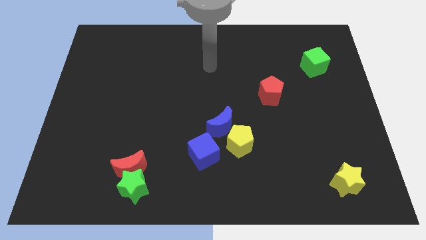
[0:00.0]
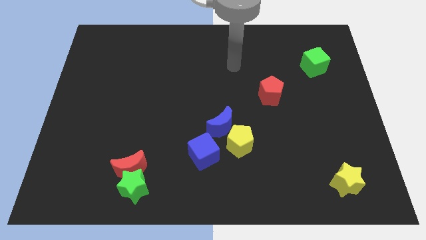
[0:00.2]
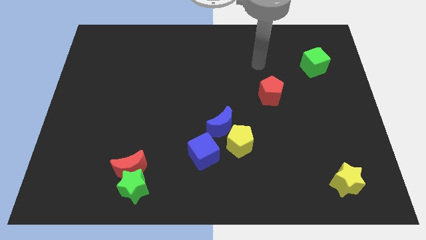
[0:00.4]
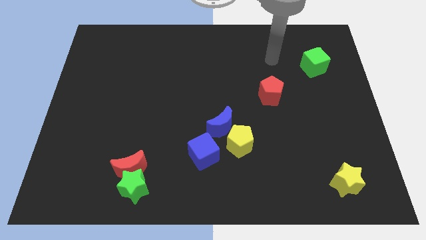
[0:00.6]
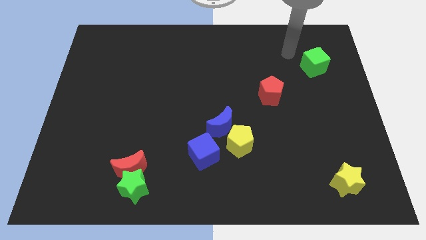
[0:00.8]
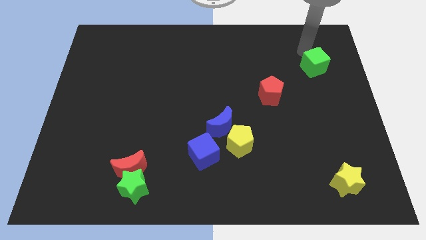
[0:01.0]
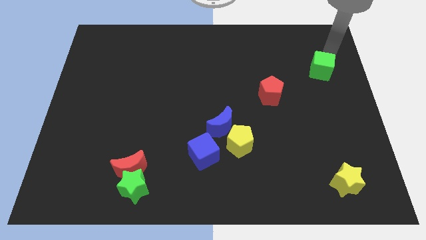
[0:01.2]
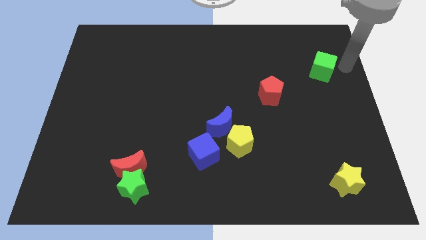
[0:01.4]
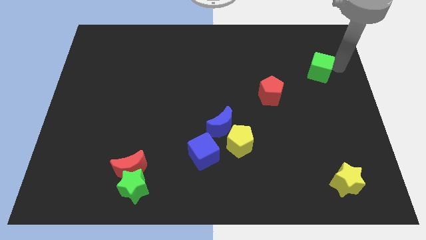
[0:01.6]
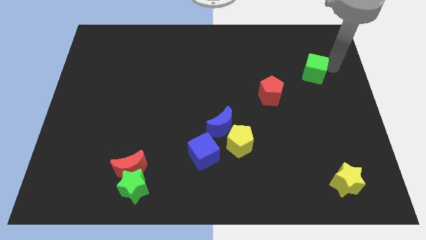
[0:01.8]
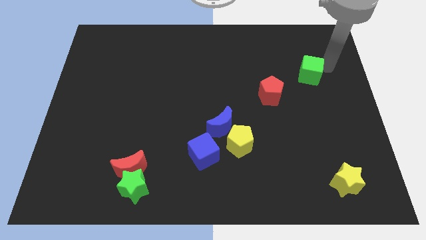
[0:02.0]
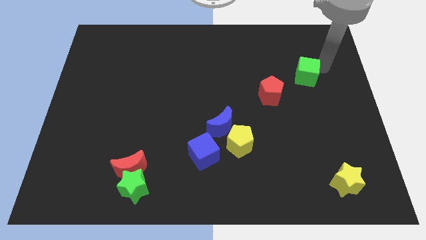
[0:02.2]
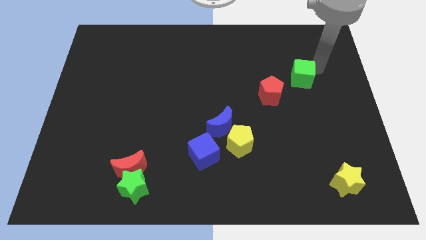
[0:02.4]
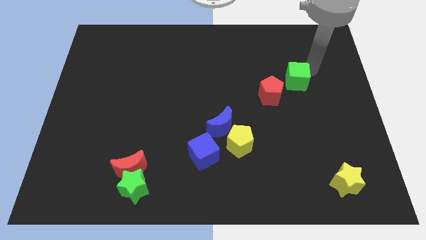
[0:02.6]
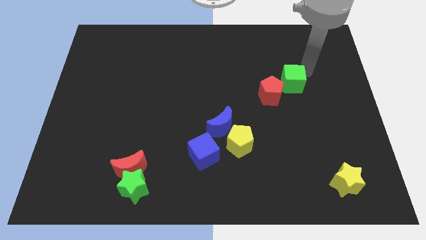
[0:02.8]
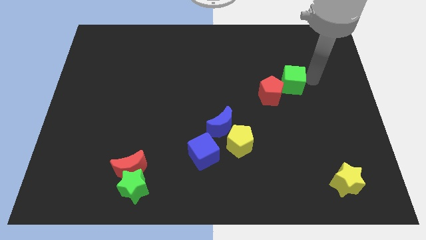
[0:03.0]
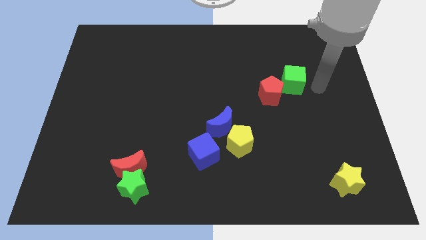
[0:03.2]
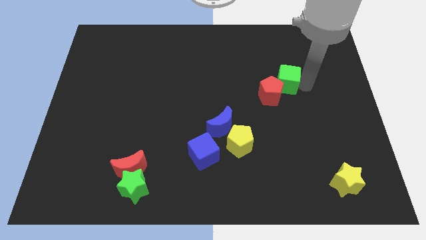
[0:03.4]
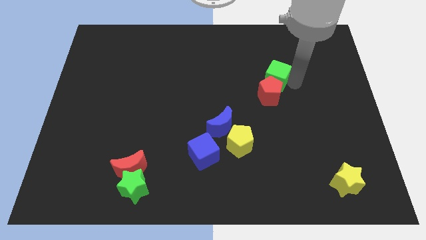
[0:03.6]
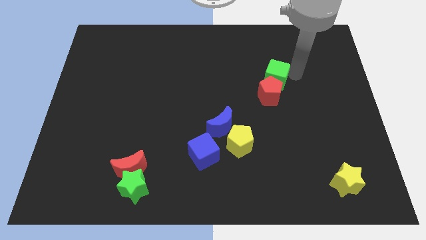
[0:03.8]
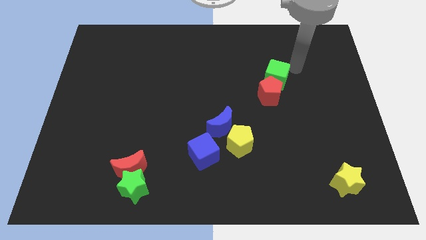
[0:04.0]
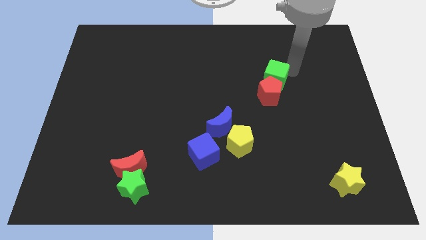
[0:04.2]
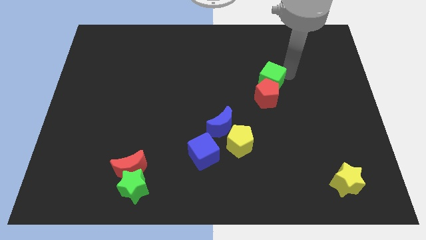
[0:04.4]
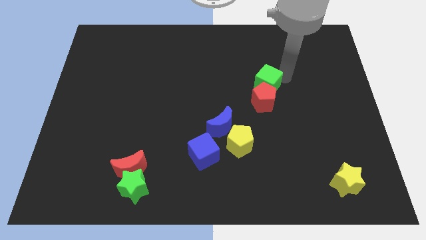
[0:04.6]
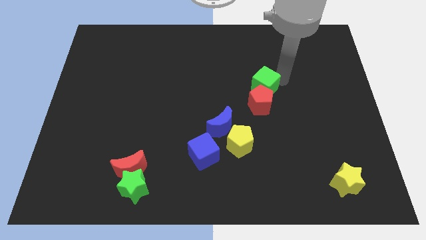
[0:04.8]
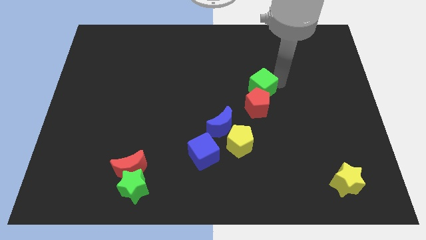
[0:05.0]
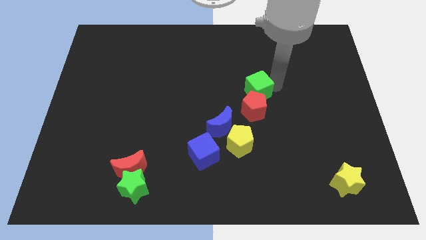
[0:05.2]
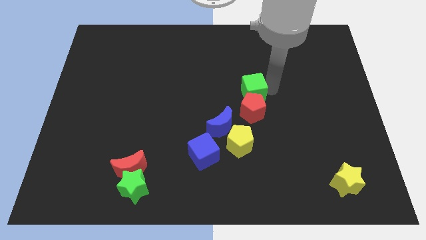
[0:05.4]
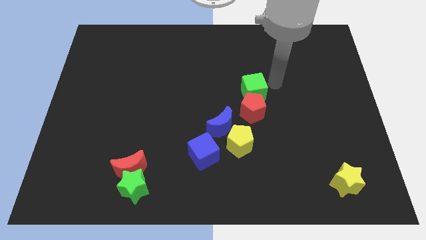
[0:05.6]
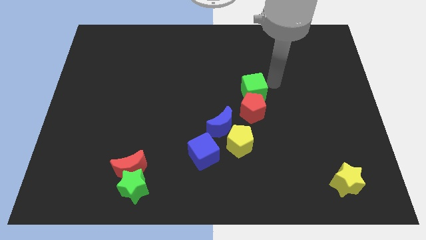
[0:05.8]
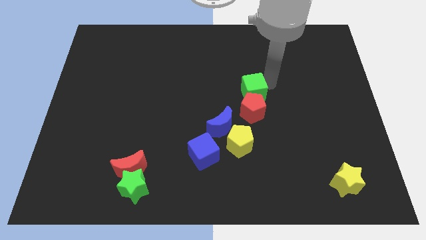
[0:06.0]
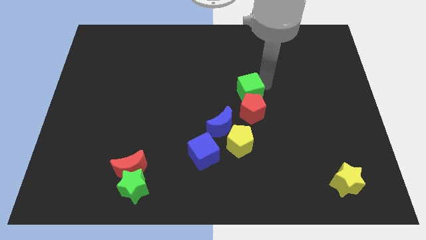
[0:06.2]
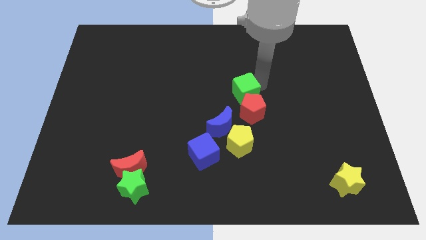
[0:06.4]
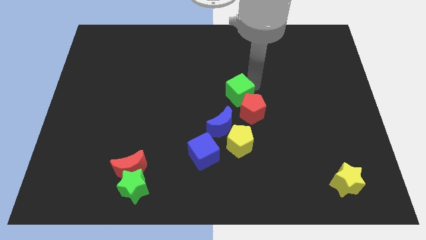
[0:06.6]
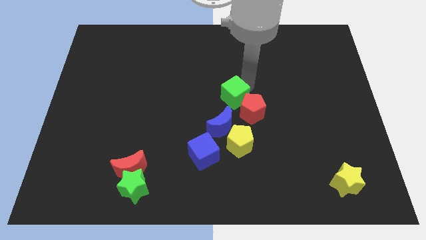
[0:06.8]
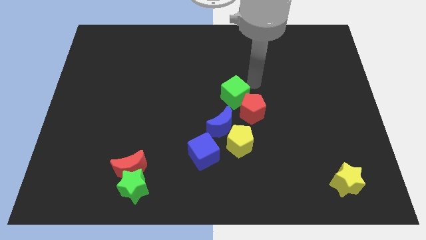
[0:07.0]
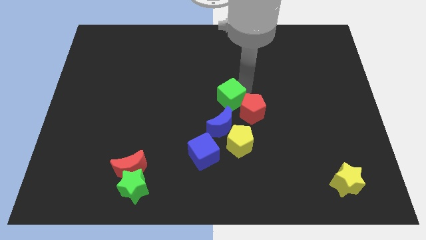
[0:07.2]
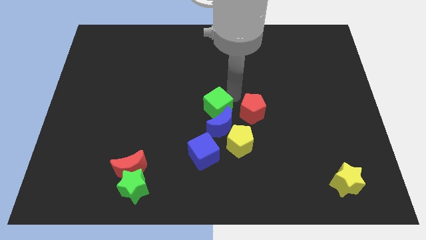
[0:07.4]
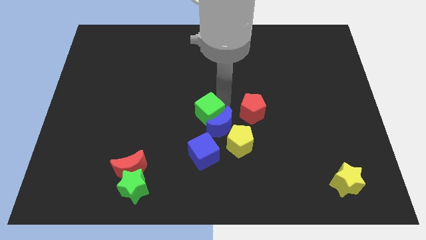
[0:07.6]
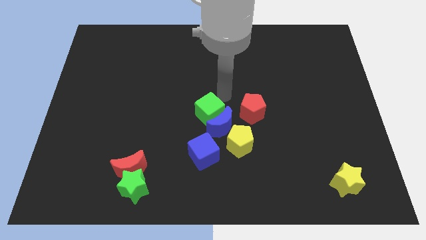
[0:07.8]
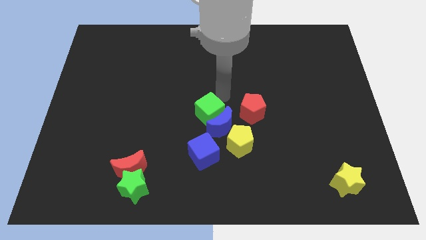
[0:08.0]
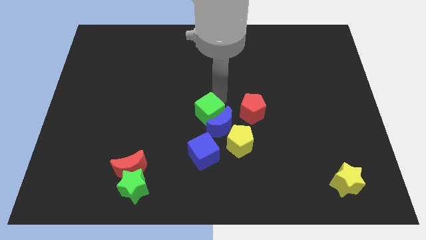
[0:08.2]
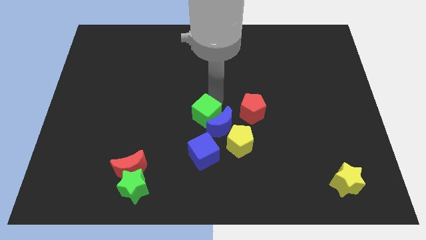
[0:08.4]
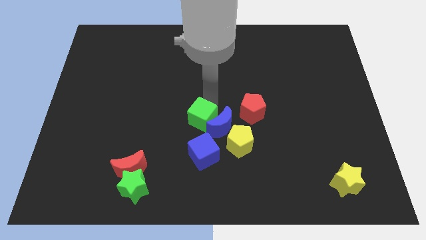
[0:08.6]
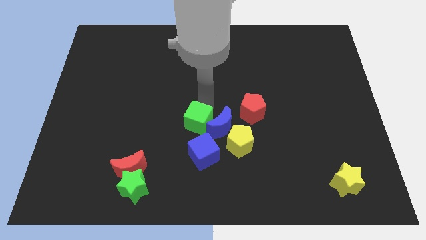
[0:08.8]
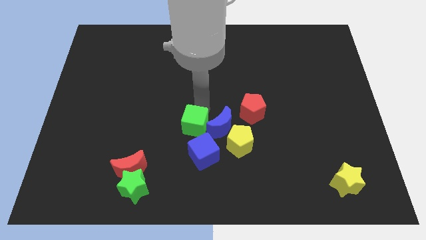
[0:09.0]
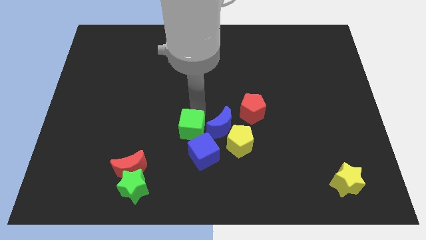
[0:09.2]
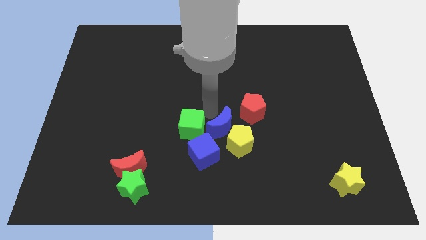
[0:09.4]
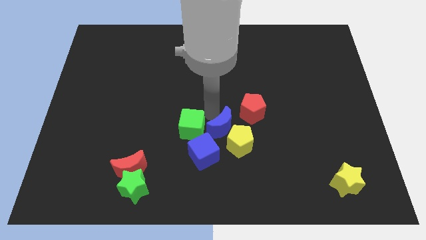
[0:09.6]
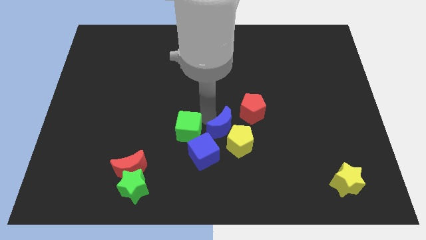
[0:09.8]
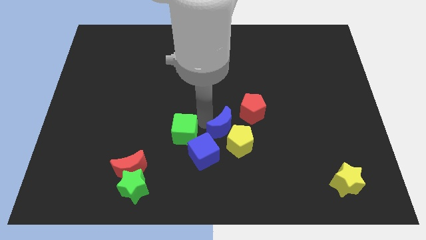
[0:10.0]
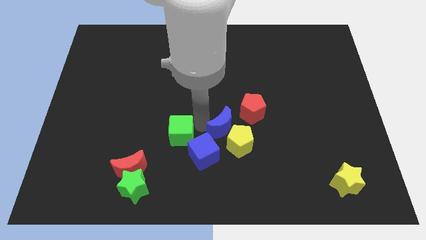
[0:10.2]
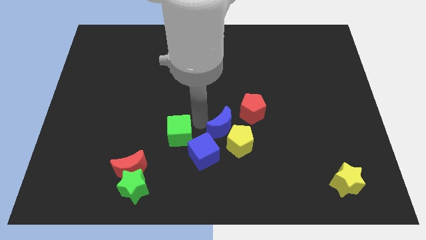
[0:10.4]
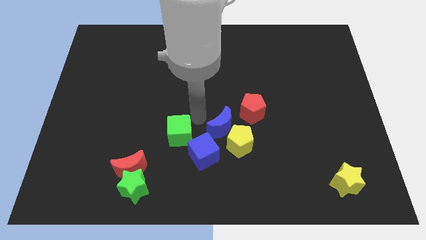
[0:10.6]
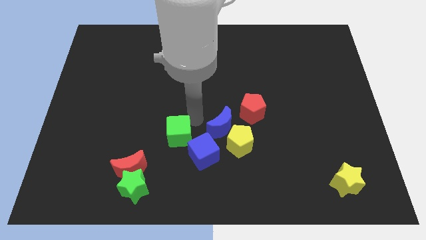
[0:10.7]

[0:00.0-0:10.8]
move the green cube just left of the blue cube

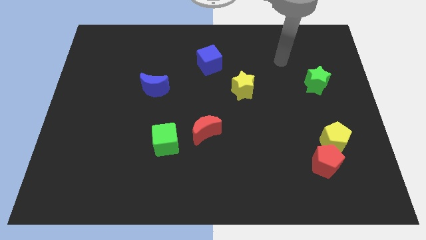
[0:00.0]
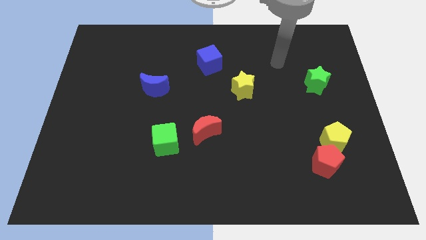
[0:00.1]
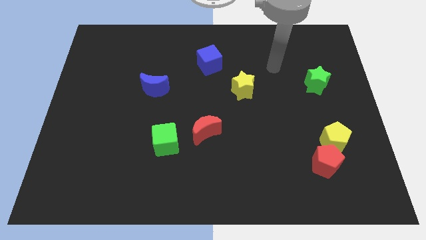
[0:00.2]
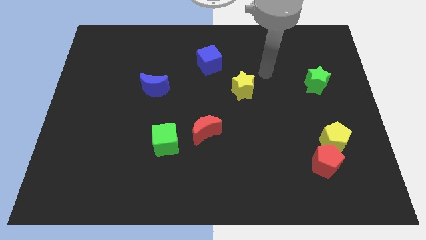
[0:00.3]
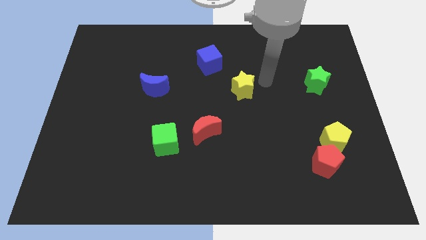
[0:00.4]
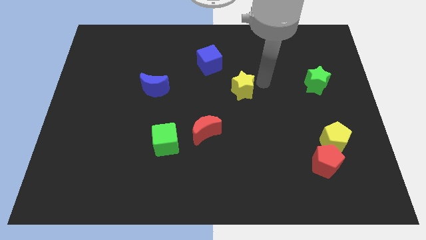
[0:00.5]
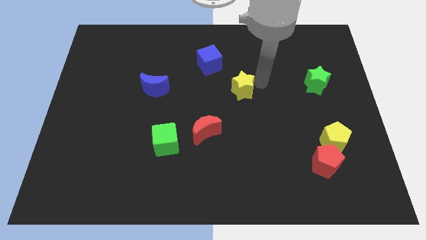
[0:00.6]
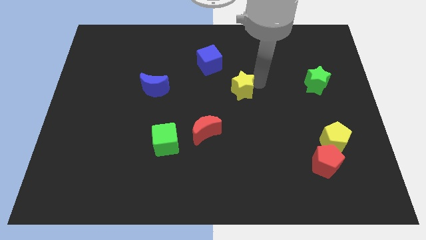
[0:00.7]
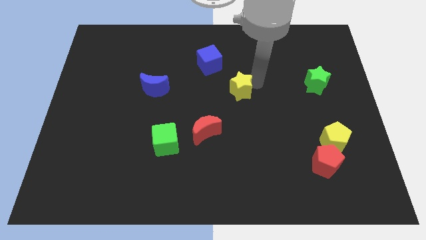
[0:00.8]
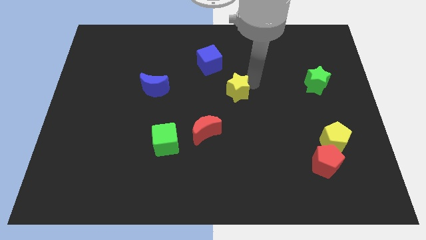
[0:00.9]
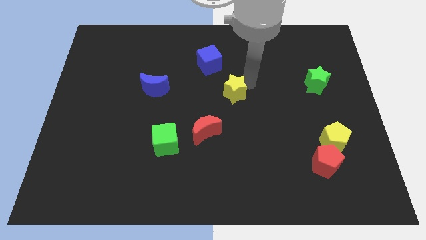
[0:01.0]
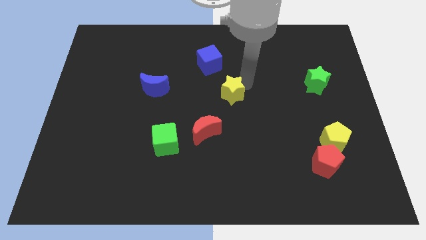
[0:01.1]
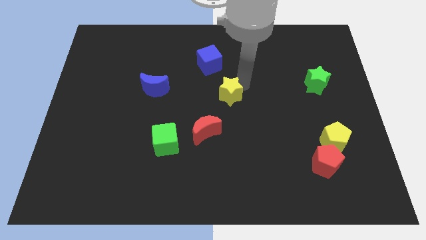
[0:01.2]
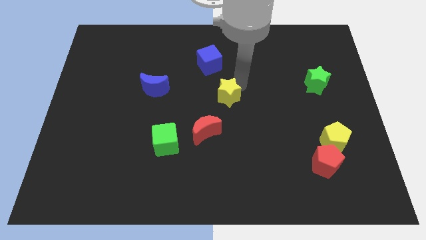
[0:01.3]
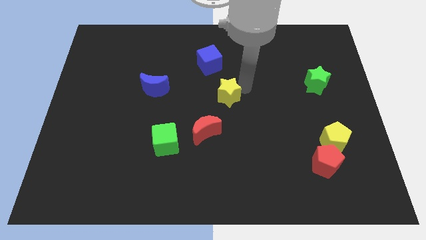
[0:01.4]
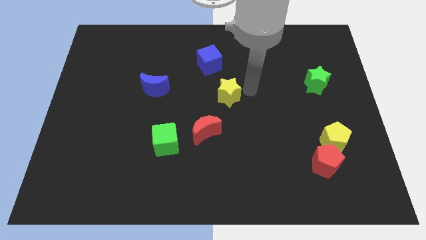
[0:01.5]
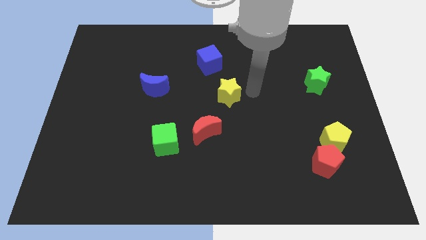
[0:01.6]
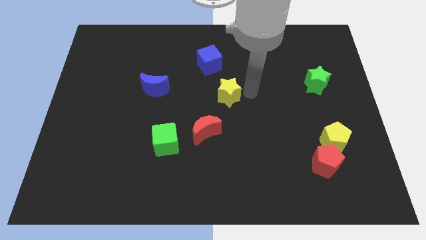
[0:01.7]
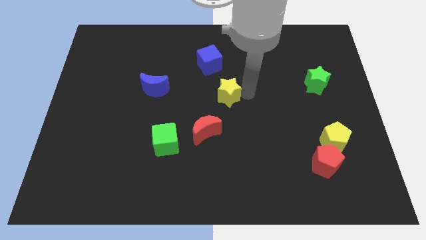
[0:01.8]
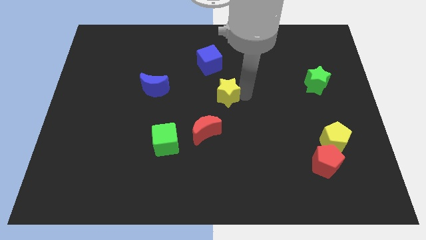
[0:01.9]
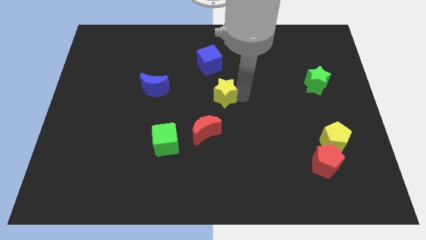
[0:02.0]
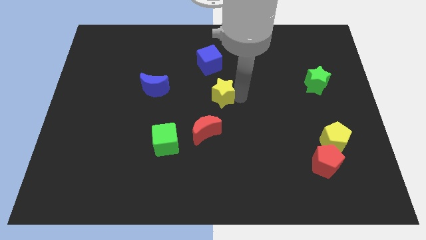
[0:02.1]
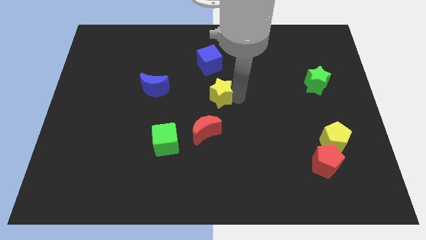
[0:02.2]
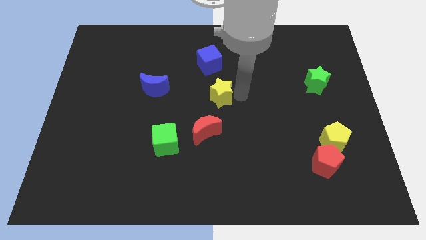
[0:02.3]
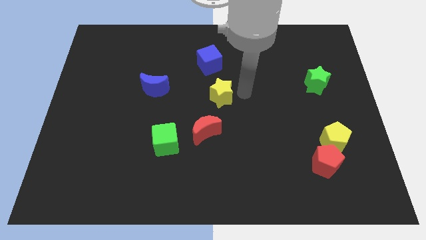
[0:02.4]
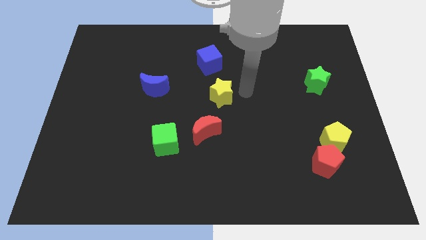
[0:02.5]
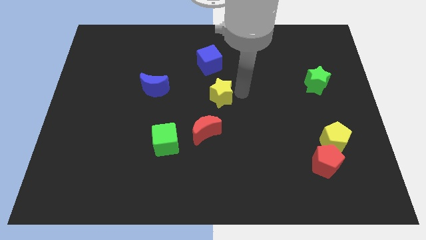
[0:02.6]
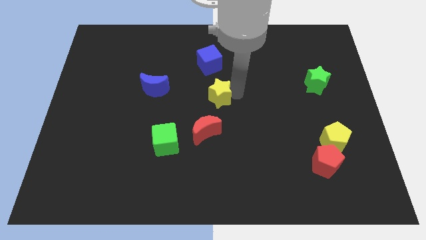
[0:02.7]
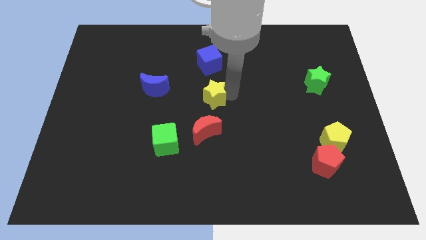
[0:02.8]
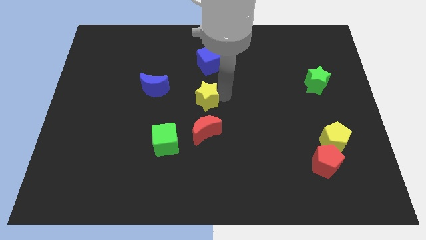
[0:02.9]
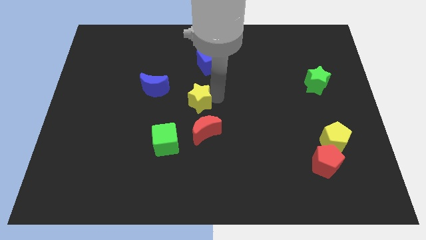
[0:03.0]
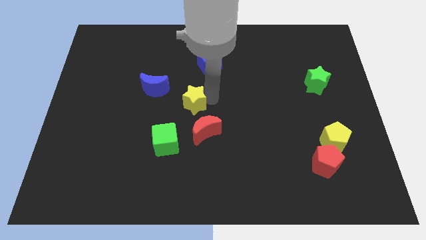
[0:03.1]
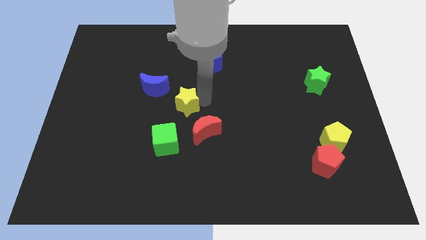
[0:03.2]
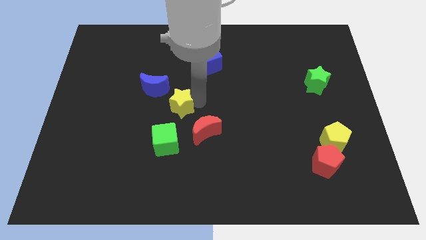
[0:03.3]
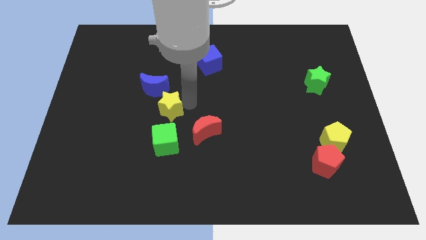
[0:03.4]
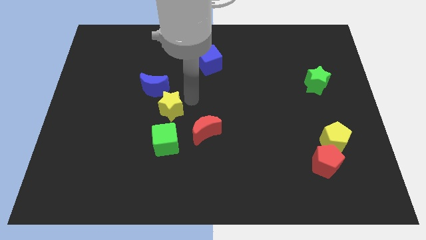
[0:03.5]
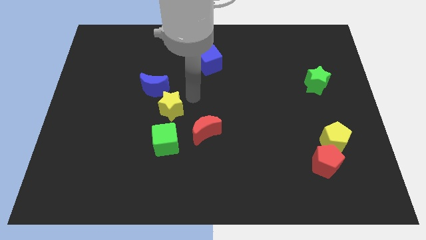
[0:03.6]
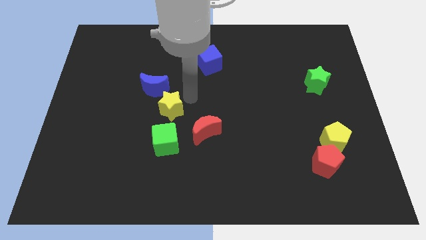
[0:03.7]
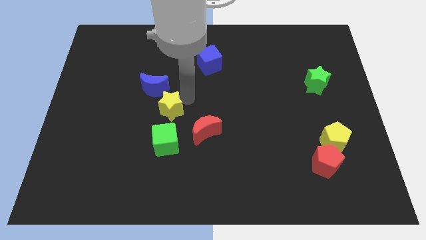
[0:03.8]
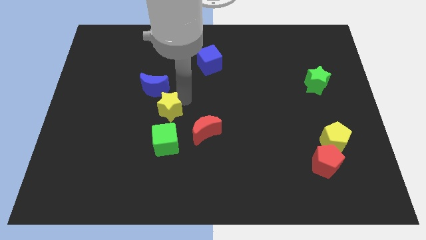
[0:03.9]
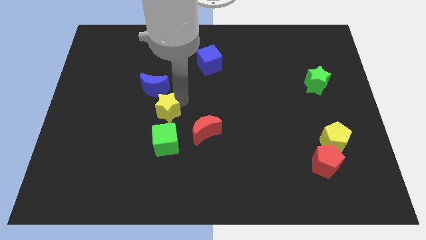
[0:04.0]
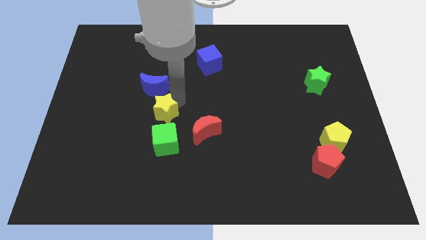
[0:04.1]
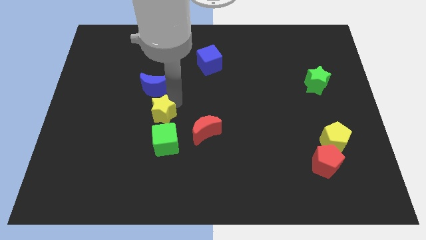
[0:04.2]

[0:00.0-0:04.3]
put the yellow star to the top left side of the green cube
